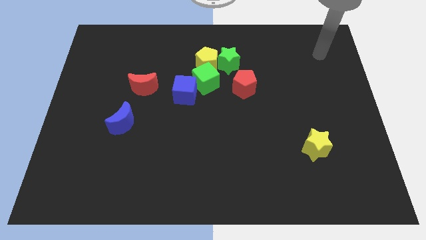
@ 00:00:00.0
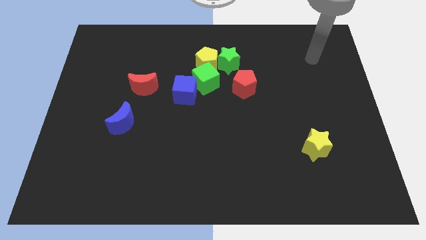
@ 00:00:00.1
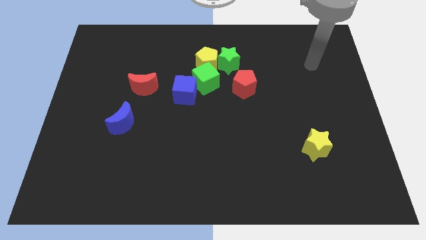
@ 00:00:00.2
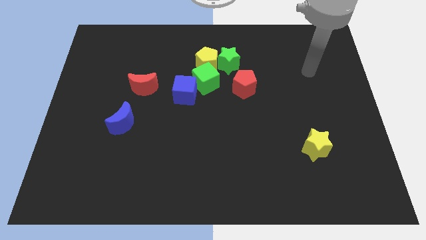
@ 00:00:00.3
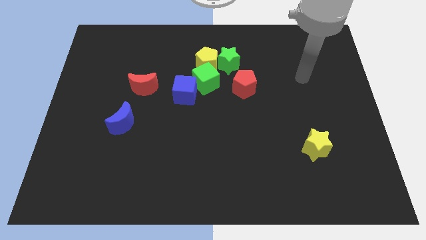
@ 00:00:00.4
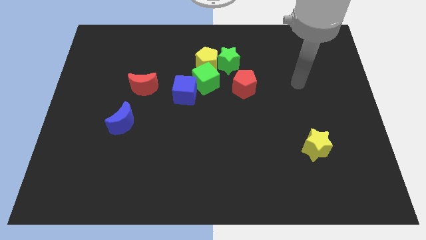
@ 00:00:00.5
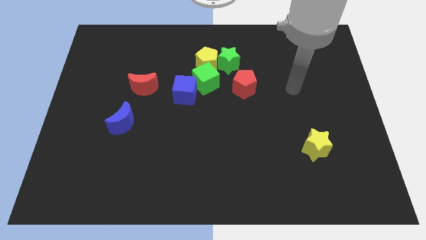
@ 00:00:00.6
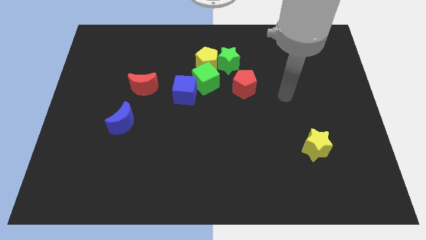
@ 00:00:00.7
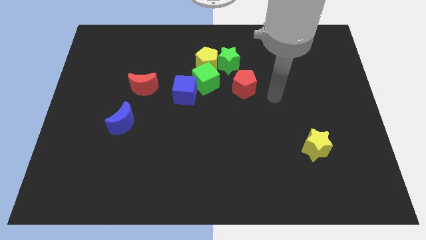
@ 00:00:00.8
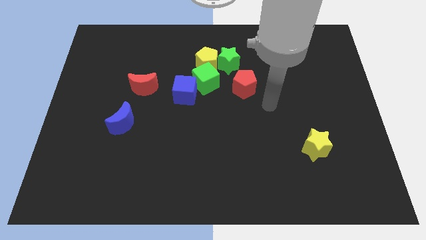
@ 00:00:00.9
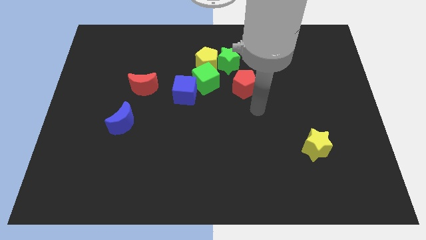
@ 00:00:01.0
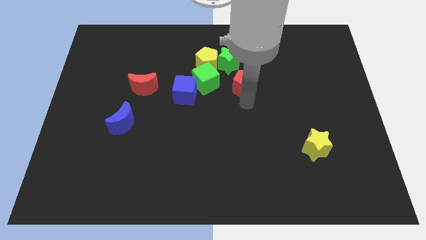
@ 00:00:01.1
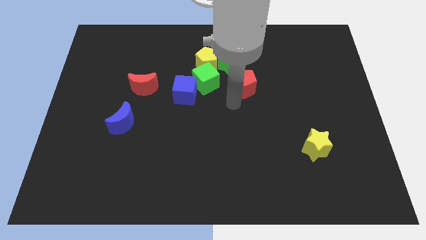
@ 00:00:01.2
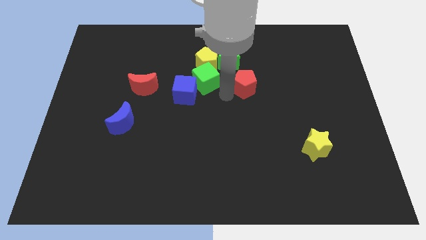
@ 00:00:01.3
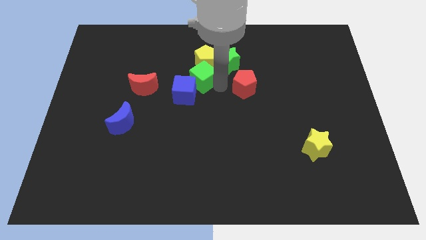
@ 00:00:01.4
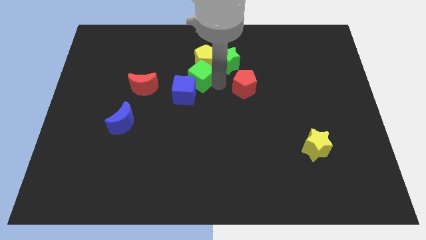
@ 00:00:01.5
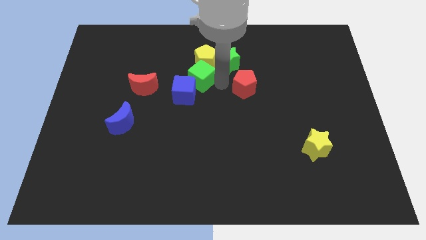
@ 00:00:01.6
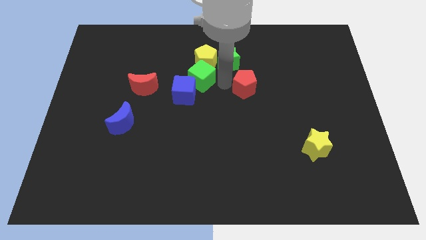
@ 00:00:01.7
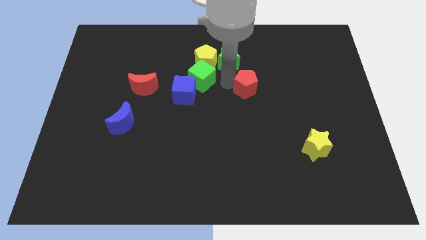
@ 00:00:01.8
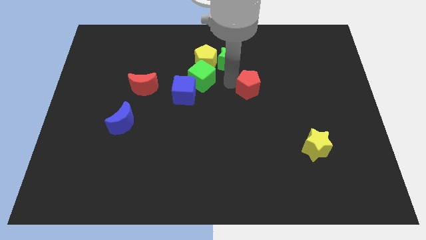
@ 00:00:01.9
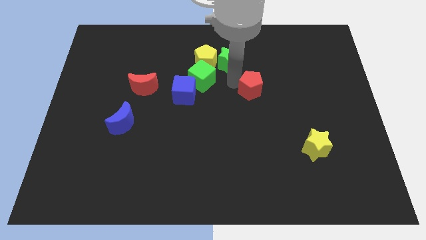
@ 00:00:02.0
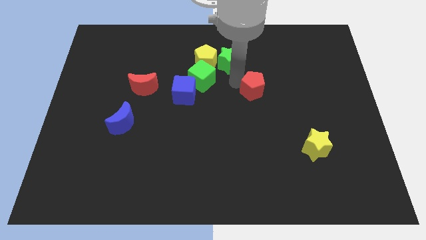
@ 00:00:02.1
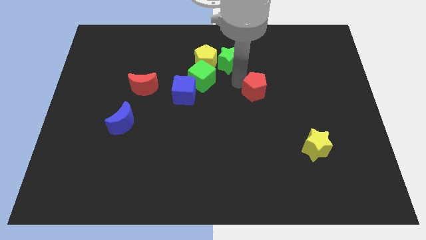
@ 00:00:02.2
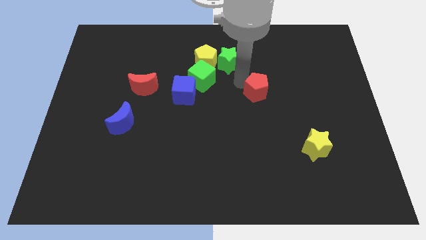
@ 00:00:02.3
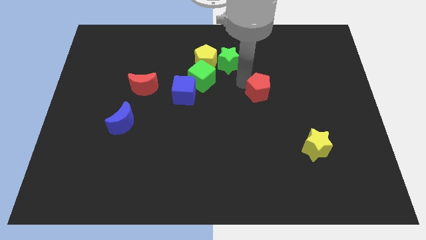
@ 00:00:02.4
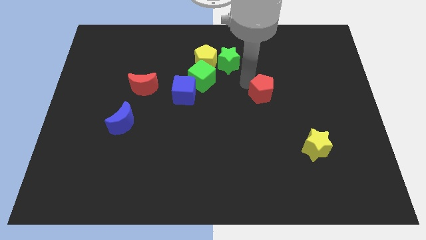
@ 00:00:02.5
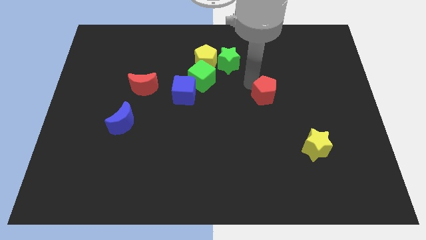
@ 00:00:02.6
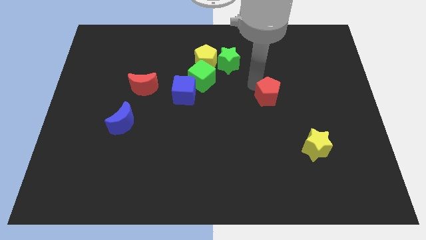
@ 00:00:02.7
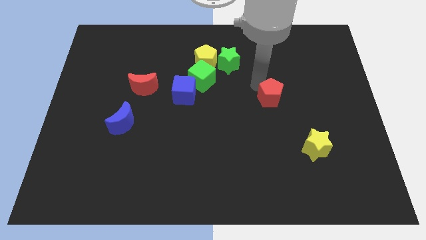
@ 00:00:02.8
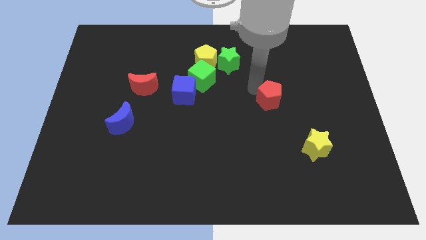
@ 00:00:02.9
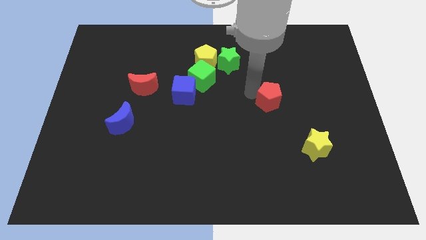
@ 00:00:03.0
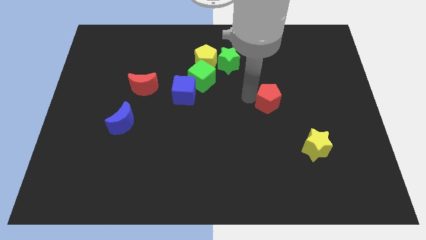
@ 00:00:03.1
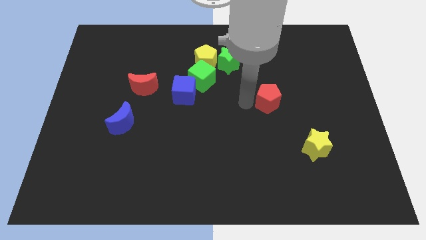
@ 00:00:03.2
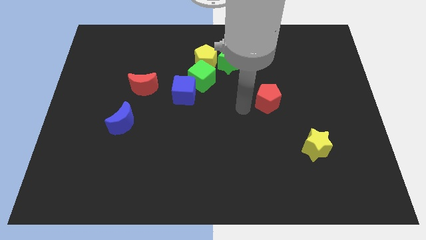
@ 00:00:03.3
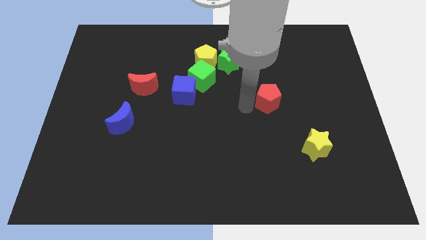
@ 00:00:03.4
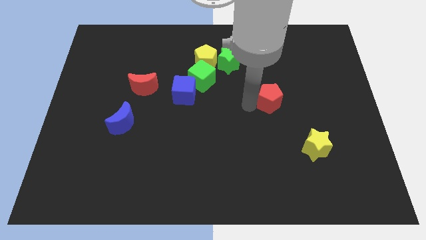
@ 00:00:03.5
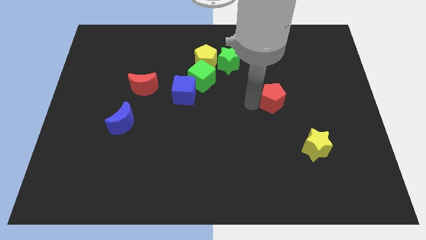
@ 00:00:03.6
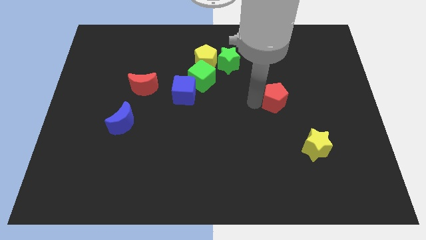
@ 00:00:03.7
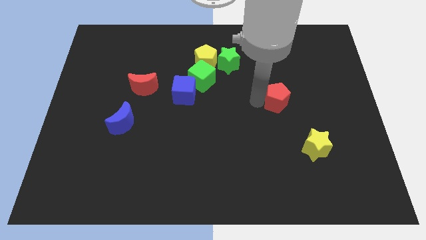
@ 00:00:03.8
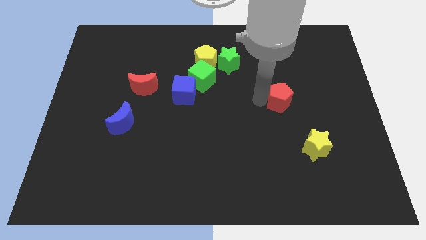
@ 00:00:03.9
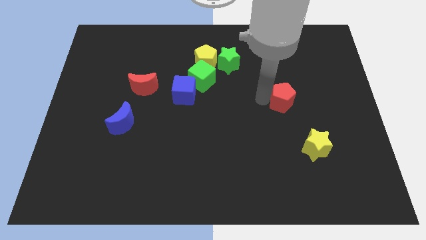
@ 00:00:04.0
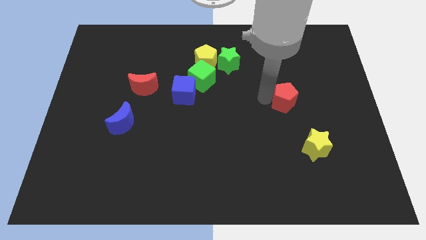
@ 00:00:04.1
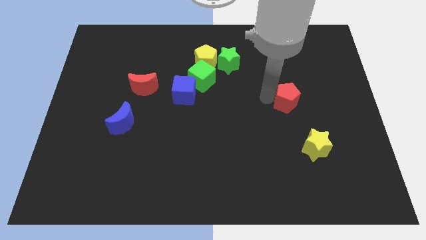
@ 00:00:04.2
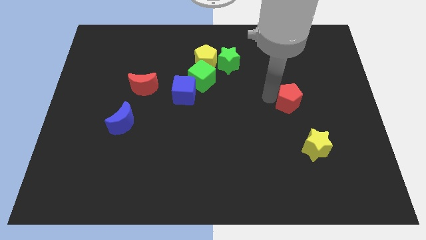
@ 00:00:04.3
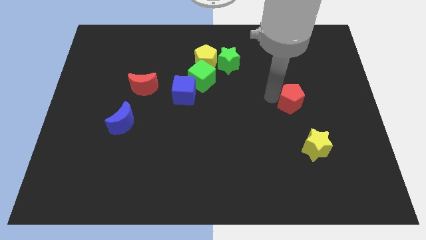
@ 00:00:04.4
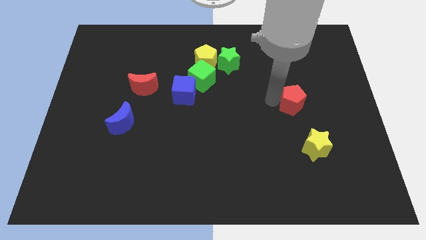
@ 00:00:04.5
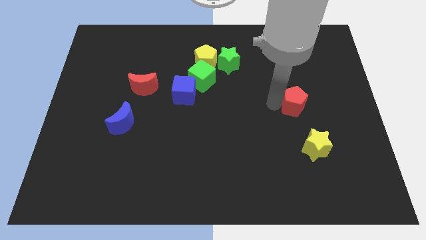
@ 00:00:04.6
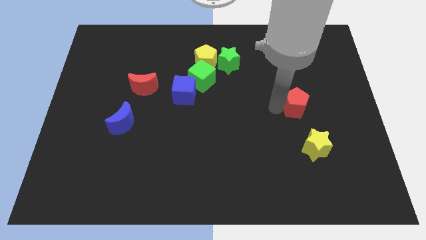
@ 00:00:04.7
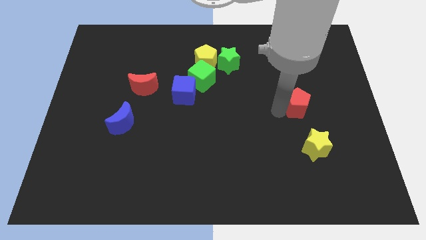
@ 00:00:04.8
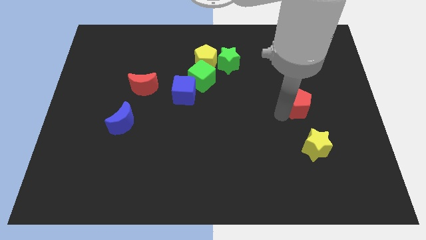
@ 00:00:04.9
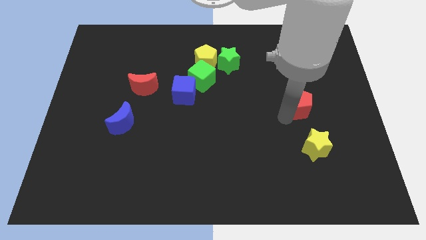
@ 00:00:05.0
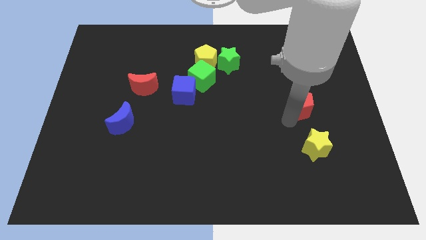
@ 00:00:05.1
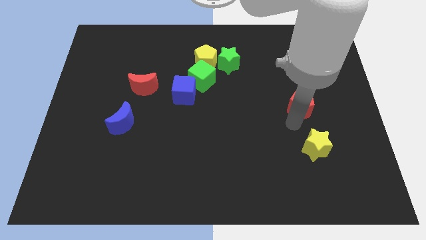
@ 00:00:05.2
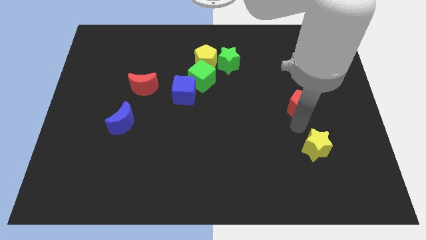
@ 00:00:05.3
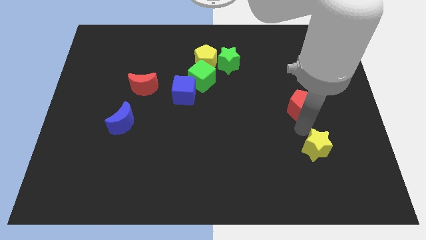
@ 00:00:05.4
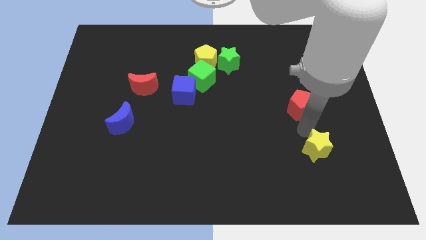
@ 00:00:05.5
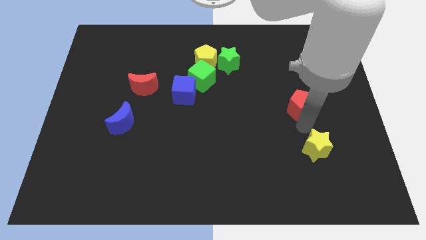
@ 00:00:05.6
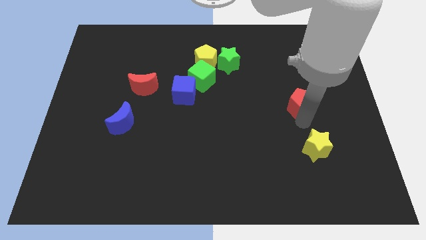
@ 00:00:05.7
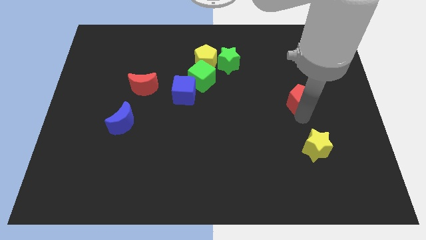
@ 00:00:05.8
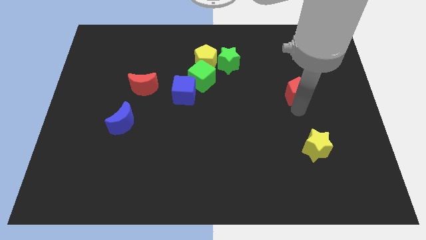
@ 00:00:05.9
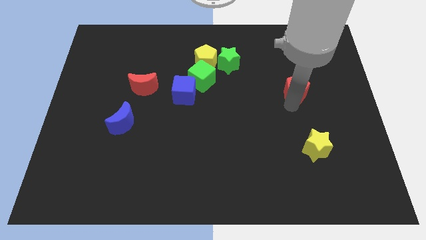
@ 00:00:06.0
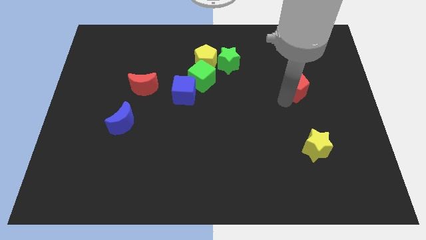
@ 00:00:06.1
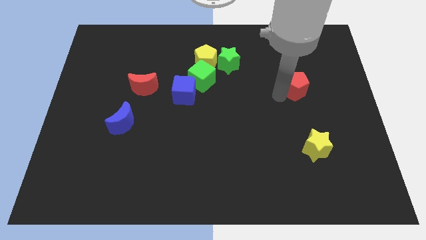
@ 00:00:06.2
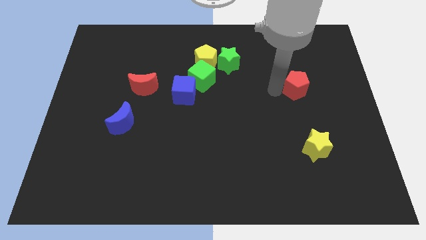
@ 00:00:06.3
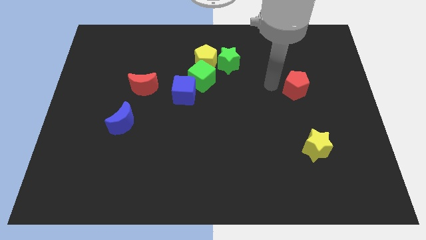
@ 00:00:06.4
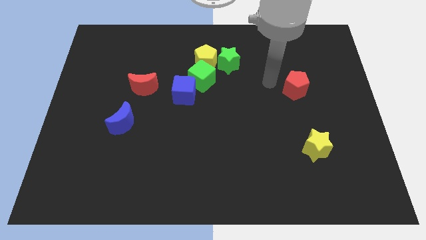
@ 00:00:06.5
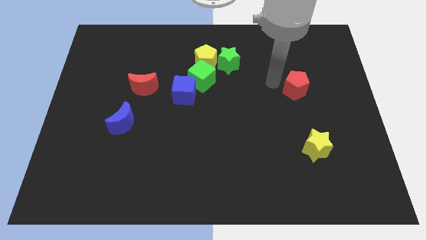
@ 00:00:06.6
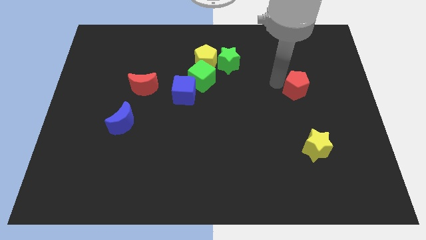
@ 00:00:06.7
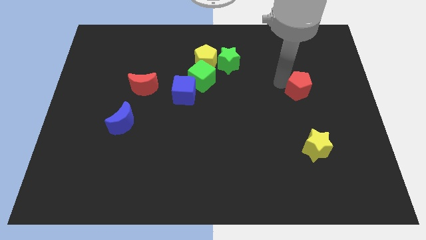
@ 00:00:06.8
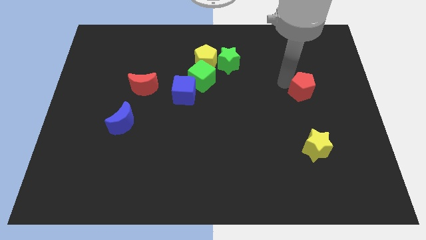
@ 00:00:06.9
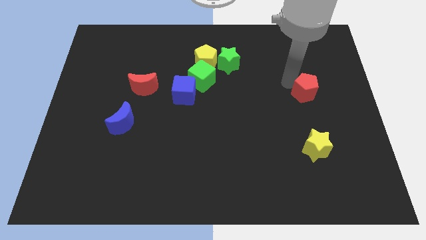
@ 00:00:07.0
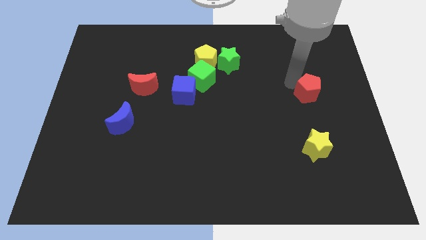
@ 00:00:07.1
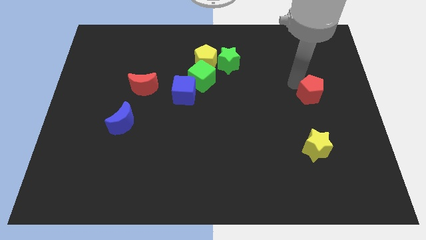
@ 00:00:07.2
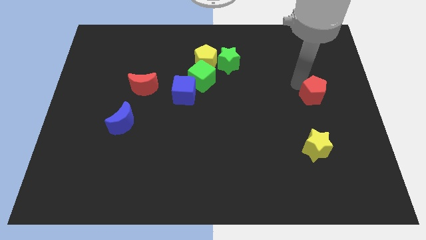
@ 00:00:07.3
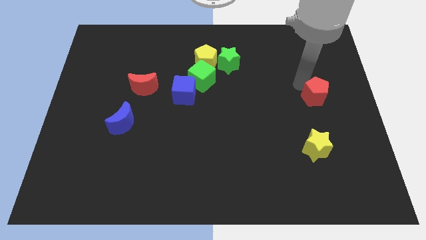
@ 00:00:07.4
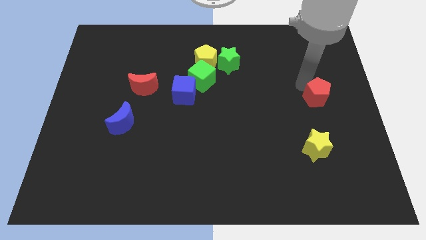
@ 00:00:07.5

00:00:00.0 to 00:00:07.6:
push the red pentagon to the center right
